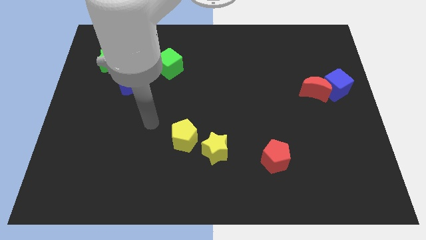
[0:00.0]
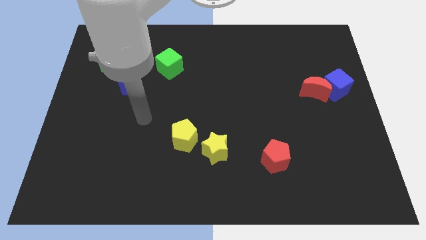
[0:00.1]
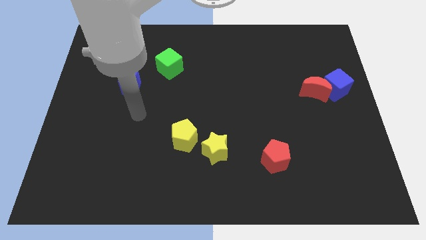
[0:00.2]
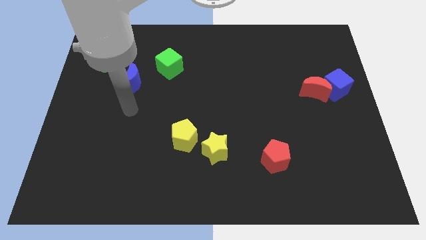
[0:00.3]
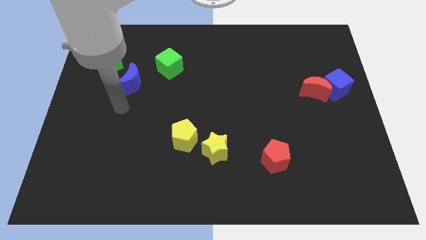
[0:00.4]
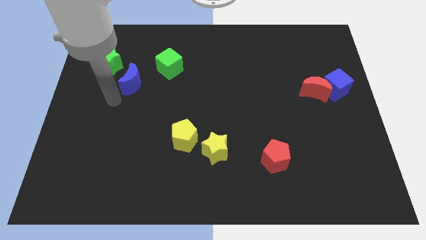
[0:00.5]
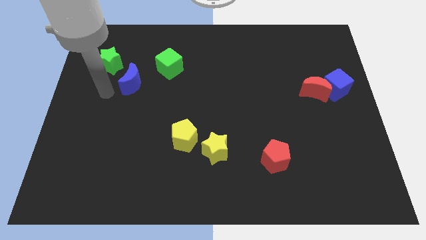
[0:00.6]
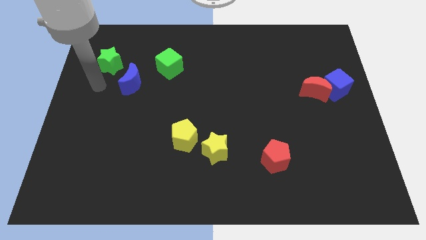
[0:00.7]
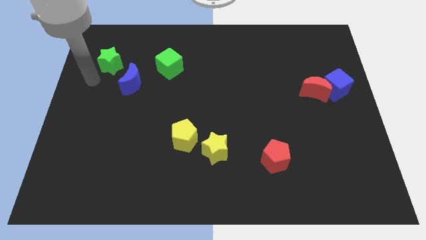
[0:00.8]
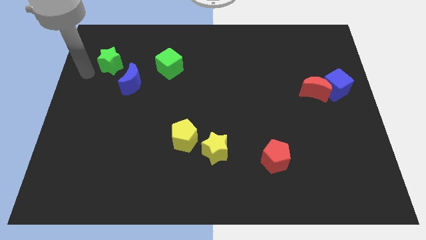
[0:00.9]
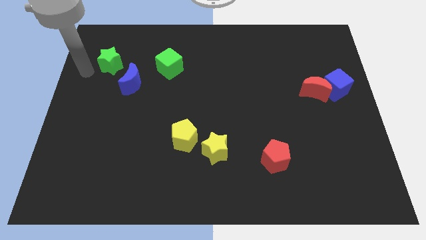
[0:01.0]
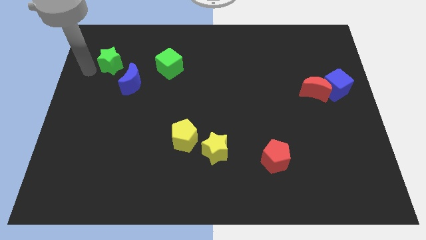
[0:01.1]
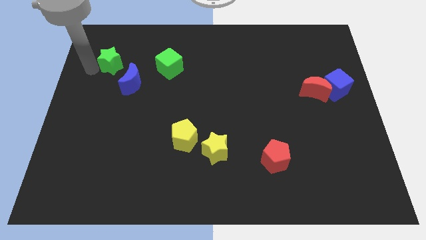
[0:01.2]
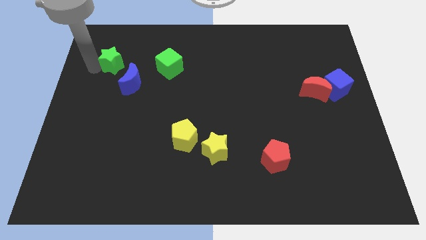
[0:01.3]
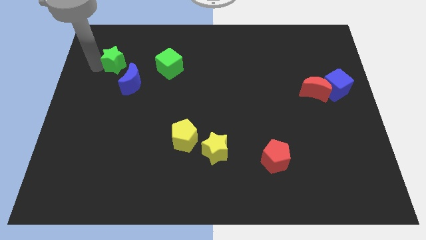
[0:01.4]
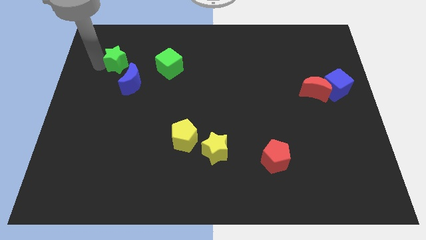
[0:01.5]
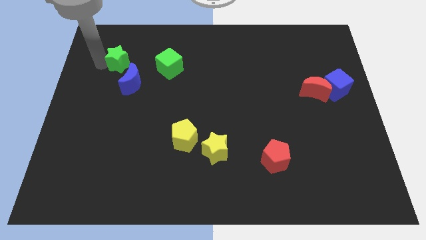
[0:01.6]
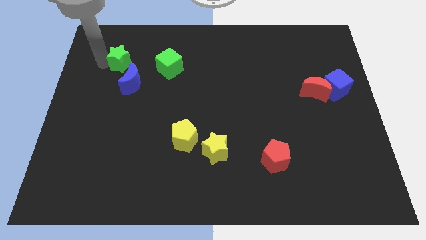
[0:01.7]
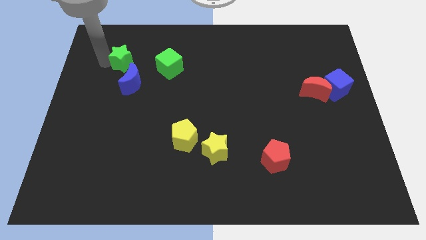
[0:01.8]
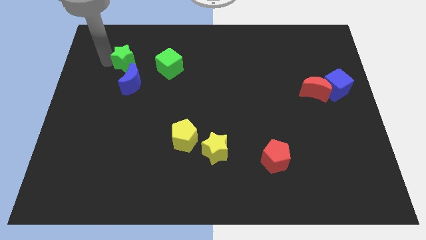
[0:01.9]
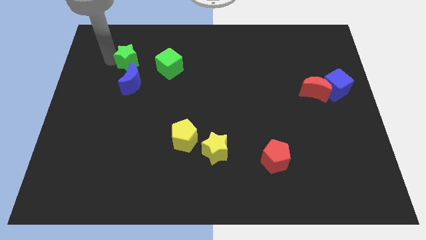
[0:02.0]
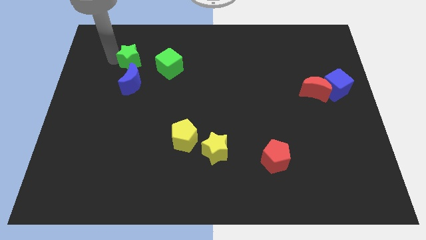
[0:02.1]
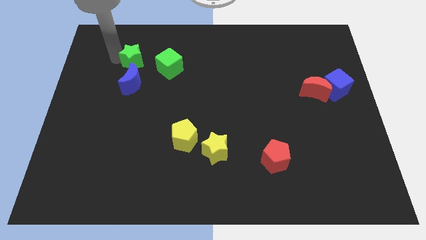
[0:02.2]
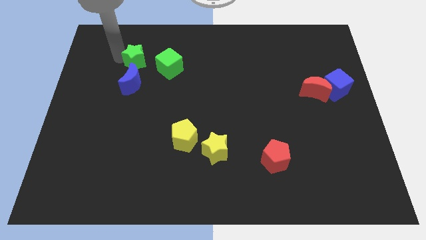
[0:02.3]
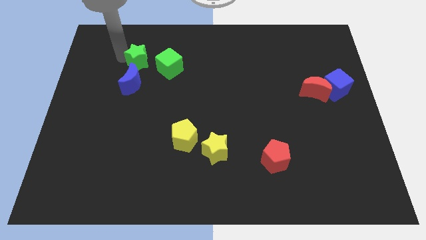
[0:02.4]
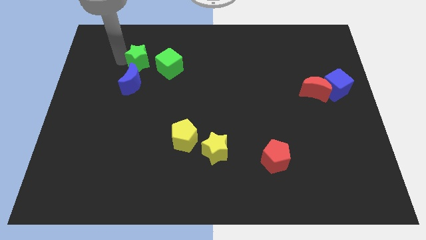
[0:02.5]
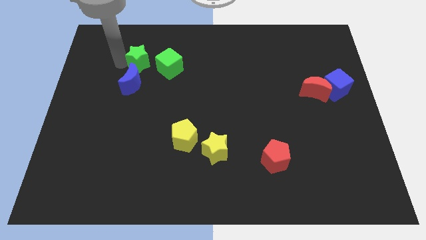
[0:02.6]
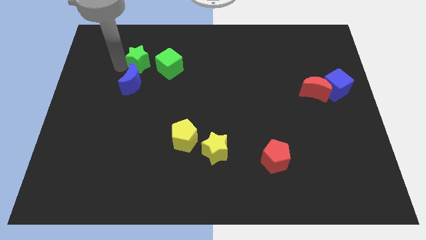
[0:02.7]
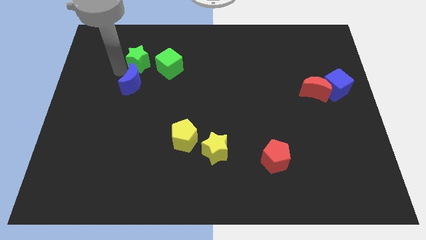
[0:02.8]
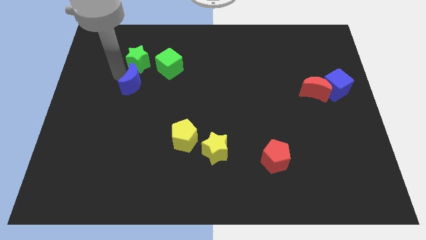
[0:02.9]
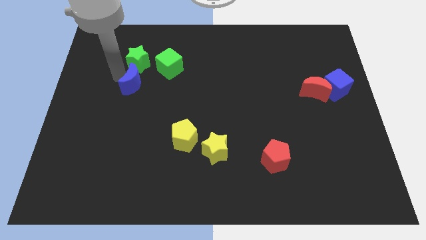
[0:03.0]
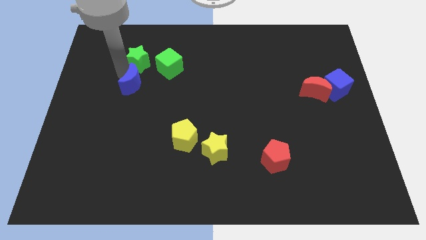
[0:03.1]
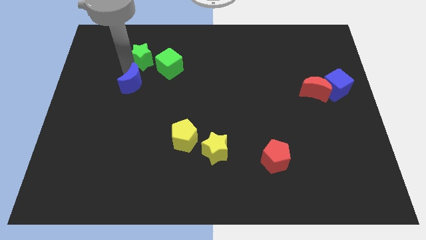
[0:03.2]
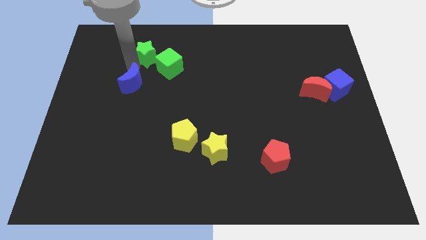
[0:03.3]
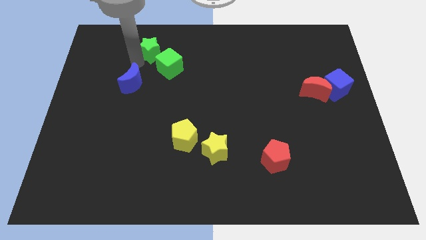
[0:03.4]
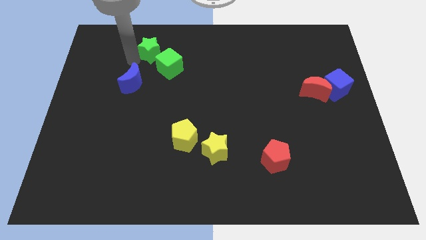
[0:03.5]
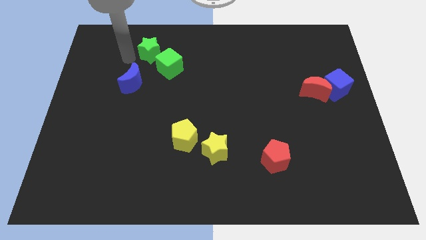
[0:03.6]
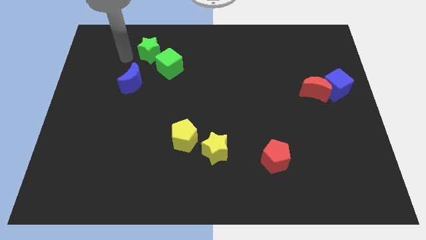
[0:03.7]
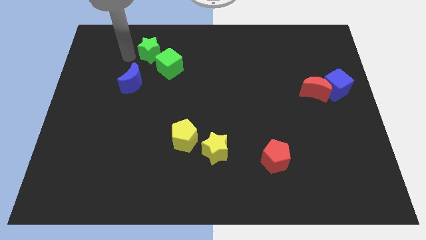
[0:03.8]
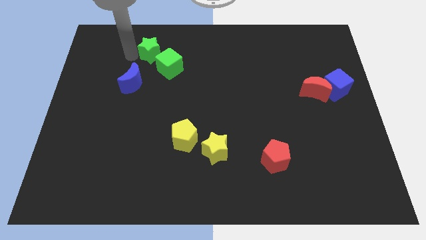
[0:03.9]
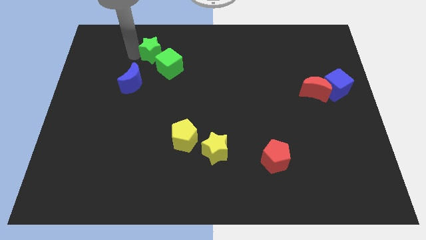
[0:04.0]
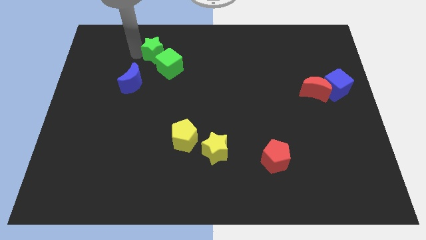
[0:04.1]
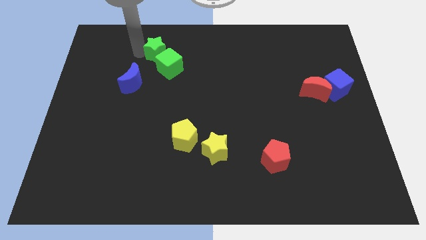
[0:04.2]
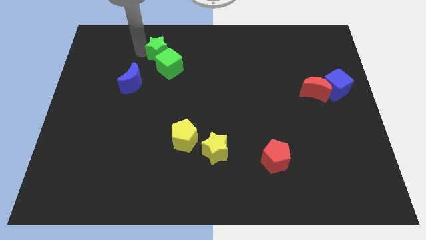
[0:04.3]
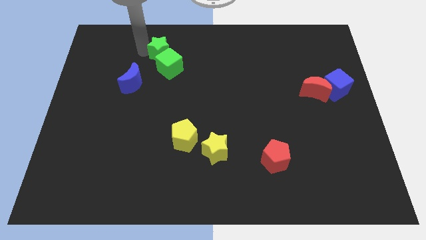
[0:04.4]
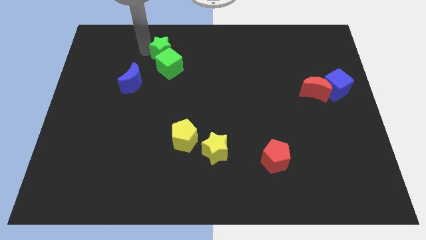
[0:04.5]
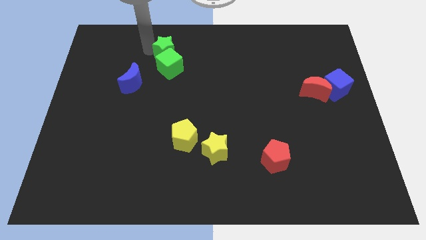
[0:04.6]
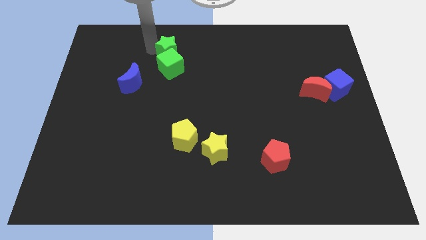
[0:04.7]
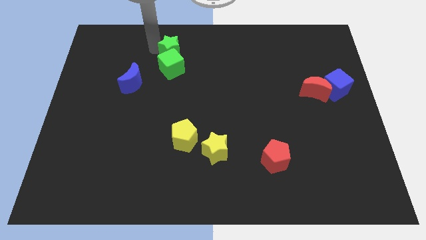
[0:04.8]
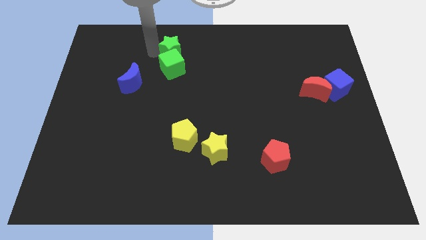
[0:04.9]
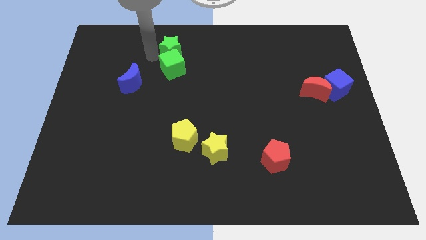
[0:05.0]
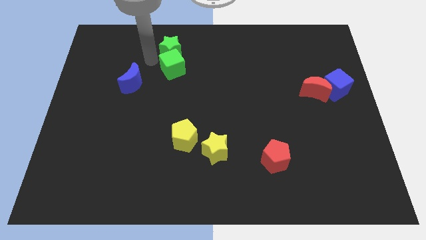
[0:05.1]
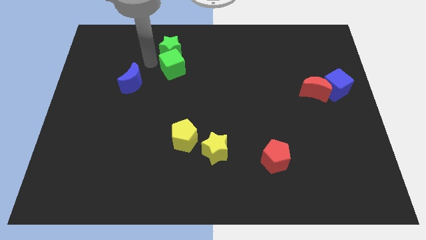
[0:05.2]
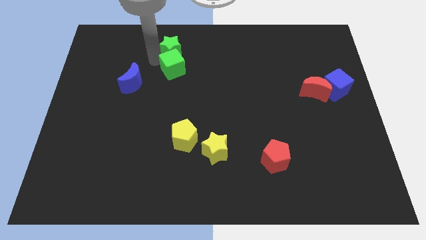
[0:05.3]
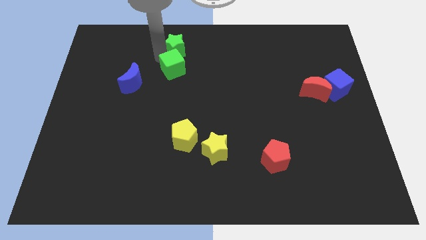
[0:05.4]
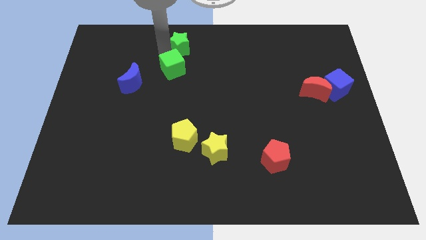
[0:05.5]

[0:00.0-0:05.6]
move the green star to the top side
